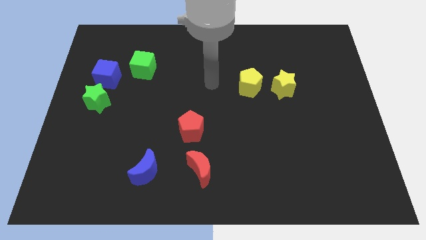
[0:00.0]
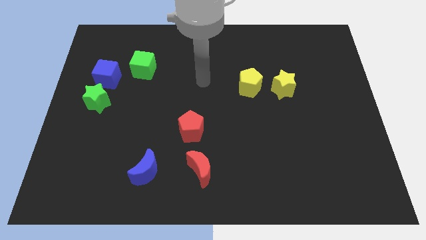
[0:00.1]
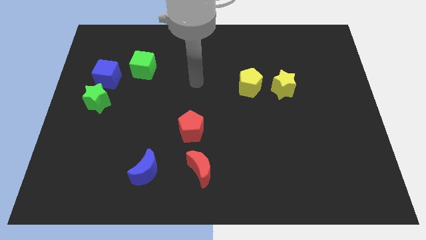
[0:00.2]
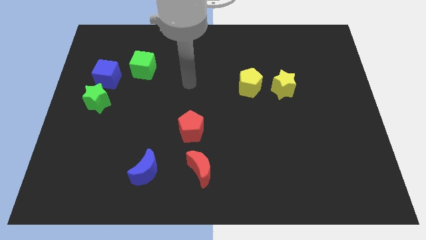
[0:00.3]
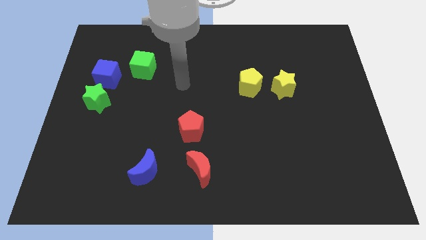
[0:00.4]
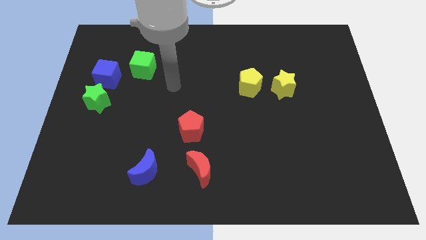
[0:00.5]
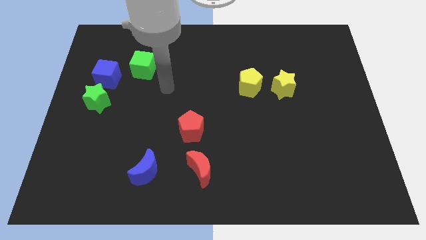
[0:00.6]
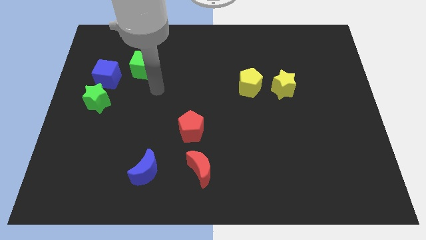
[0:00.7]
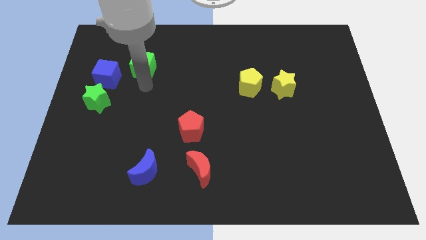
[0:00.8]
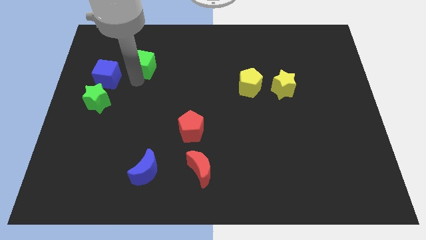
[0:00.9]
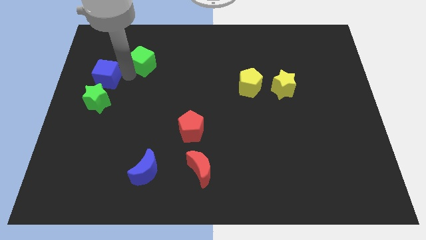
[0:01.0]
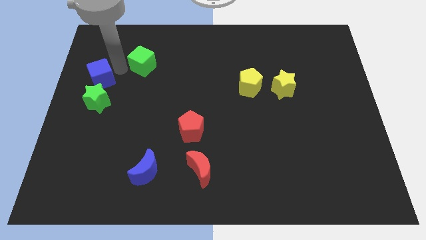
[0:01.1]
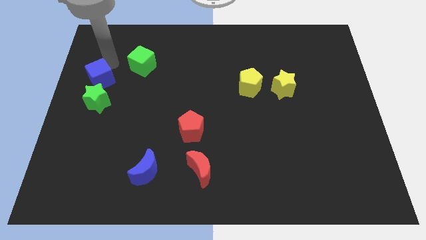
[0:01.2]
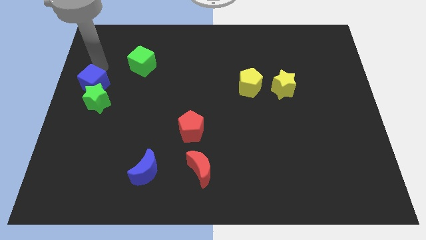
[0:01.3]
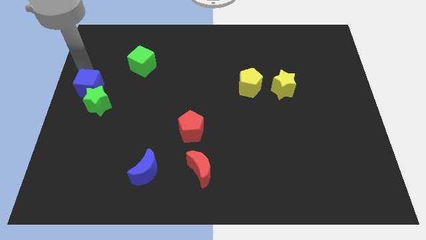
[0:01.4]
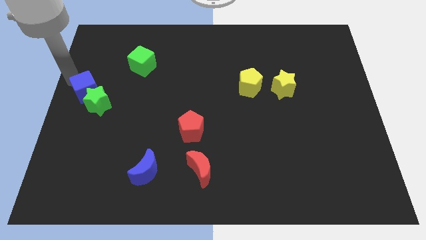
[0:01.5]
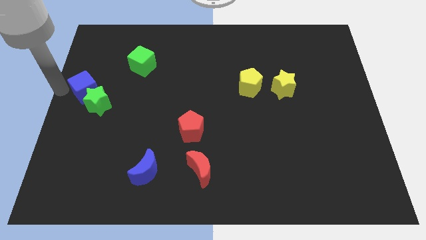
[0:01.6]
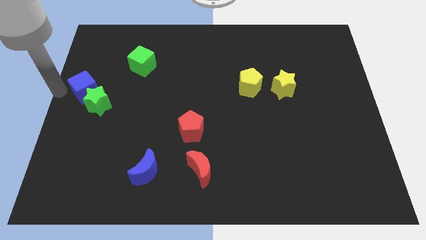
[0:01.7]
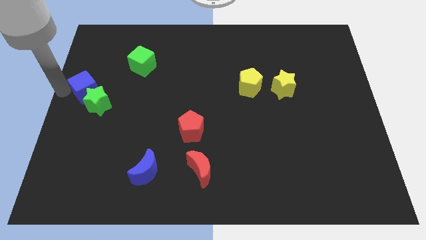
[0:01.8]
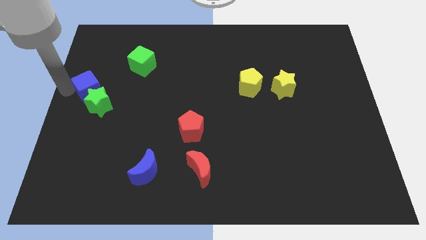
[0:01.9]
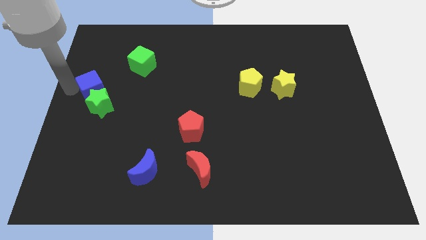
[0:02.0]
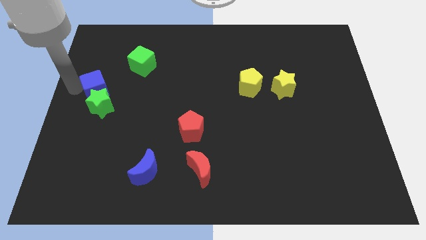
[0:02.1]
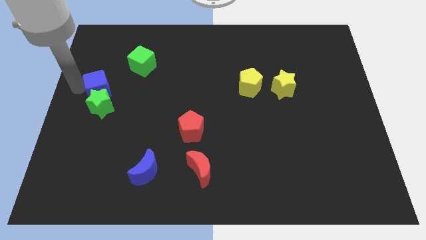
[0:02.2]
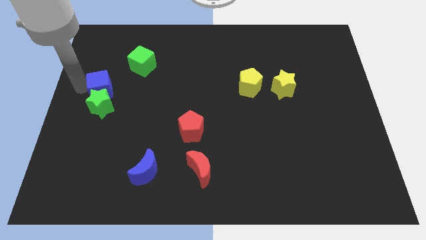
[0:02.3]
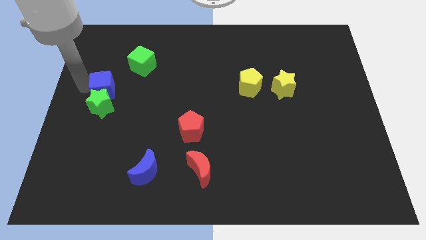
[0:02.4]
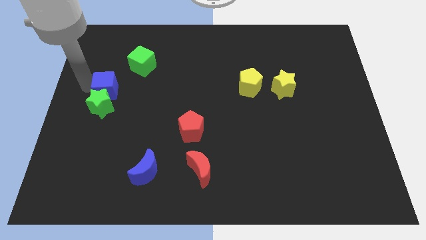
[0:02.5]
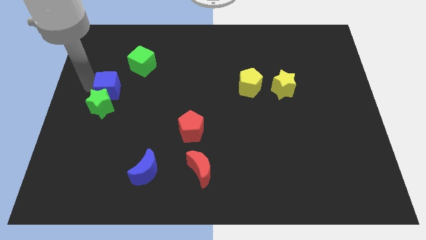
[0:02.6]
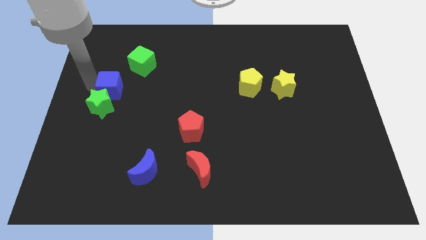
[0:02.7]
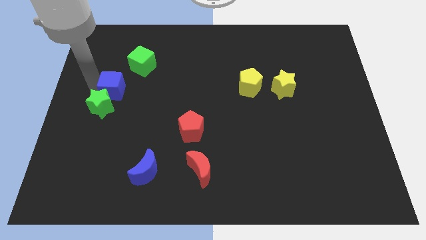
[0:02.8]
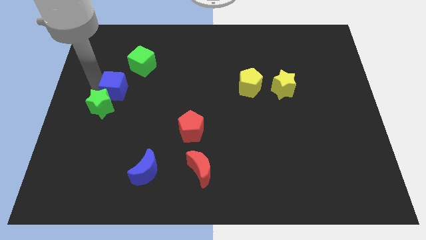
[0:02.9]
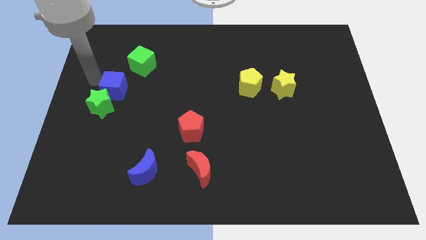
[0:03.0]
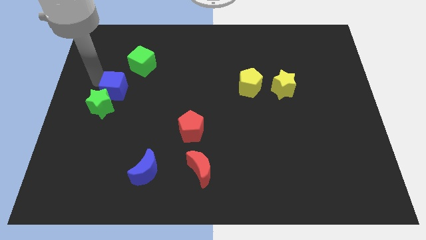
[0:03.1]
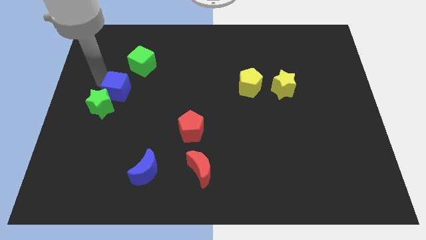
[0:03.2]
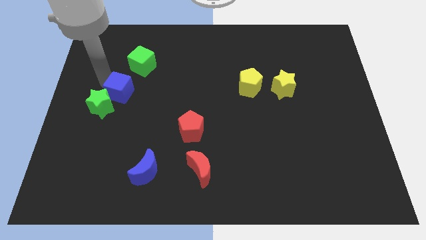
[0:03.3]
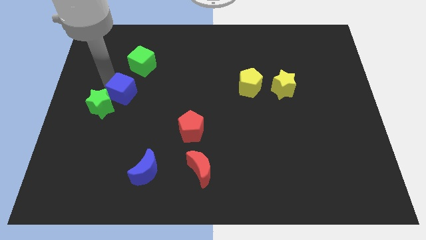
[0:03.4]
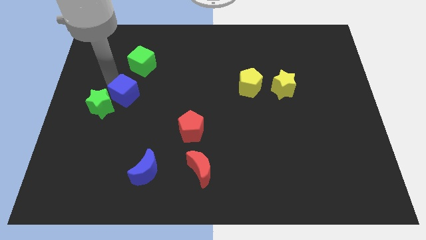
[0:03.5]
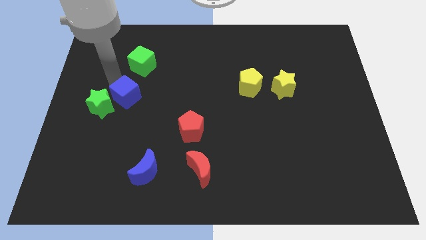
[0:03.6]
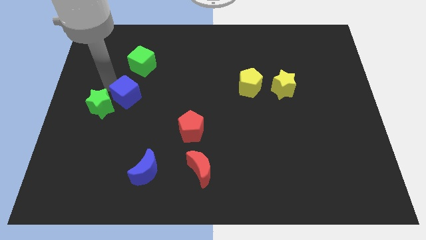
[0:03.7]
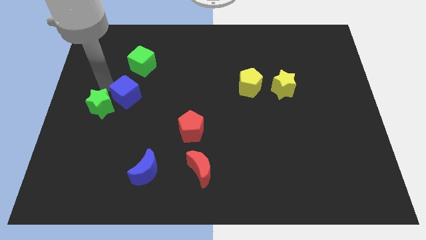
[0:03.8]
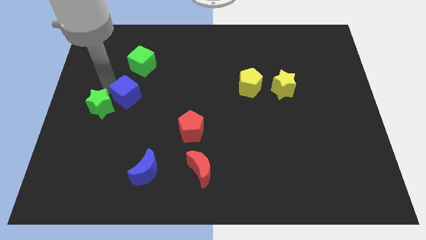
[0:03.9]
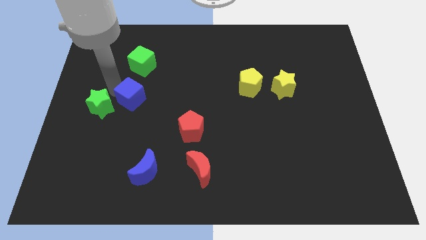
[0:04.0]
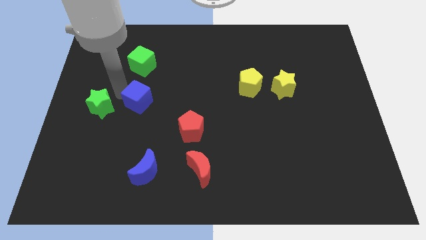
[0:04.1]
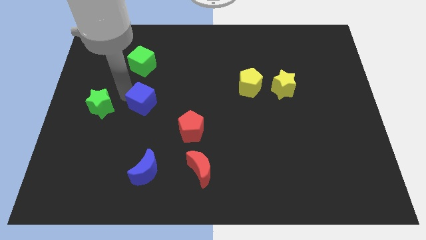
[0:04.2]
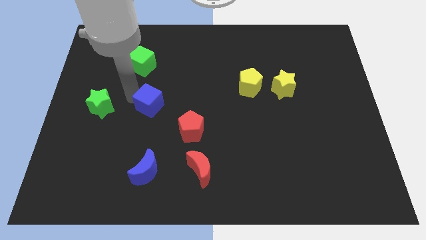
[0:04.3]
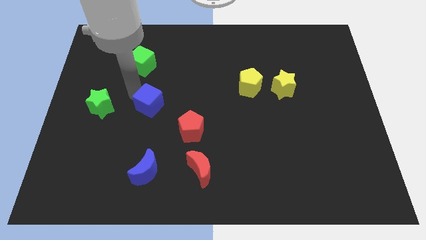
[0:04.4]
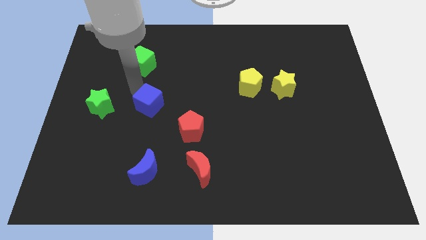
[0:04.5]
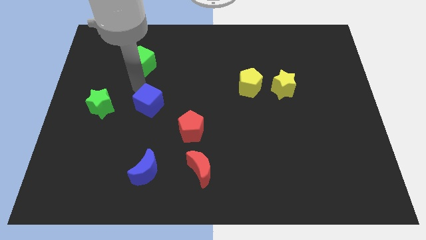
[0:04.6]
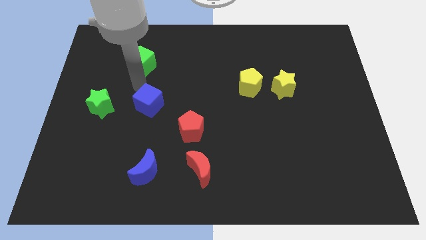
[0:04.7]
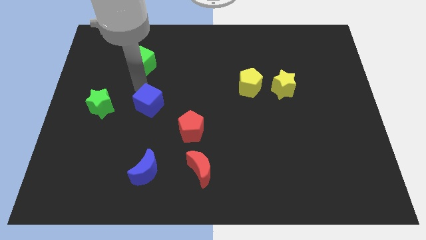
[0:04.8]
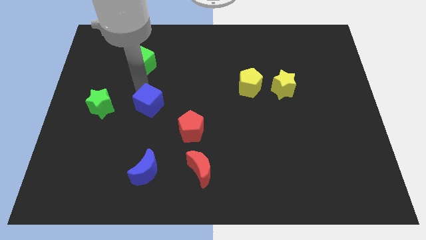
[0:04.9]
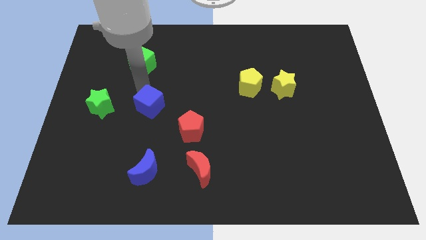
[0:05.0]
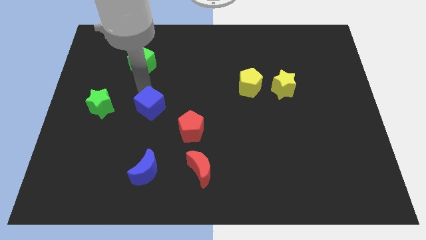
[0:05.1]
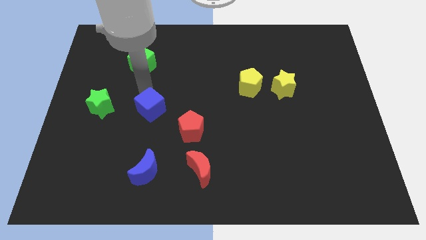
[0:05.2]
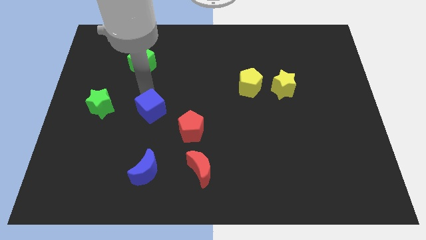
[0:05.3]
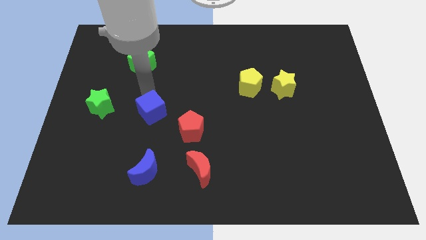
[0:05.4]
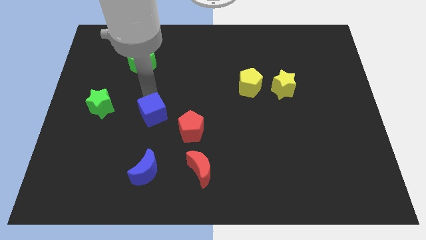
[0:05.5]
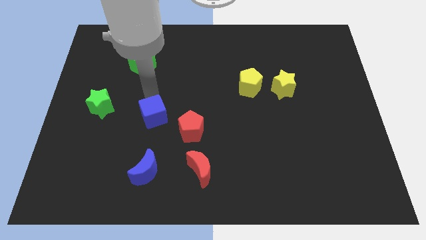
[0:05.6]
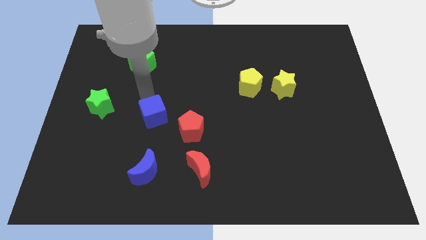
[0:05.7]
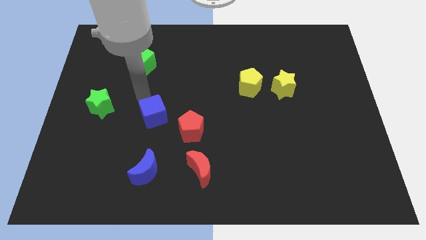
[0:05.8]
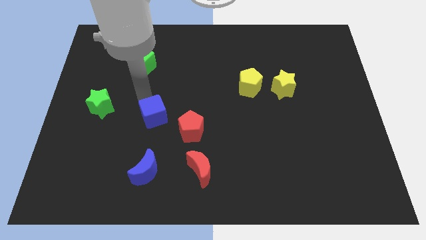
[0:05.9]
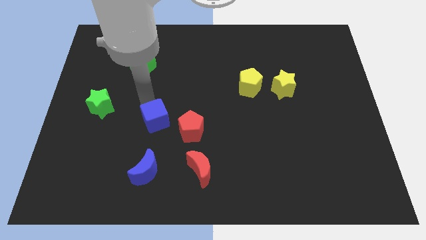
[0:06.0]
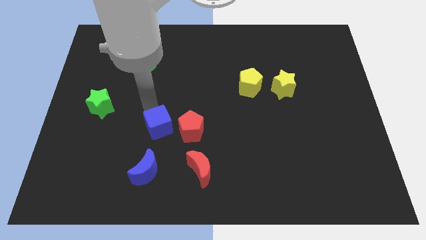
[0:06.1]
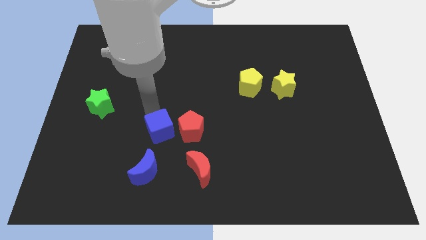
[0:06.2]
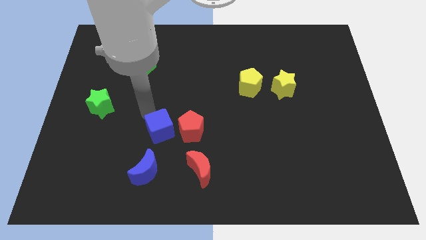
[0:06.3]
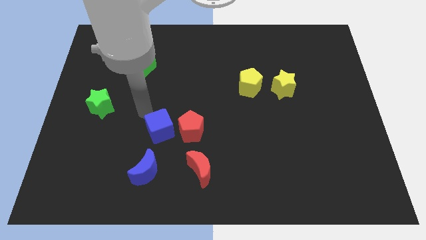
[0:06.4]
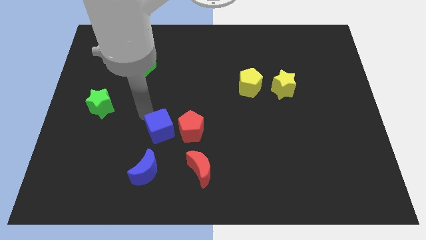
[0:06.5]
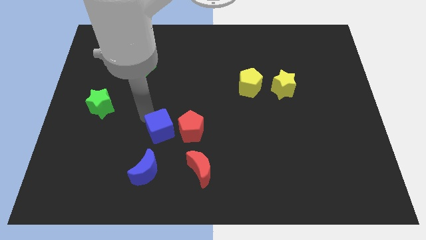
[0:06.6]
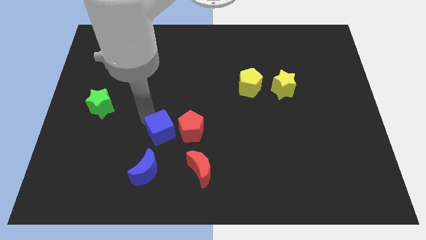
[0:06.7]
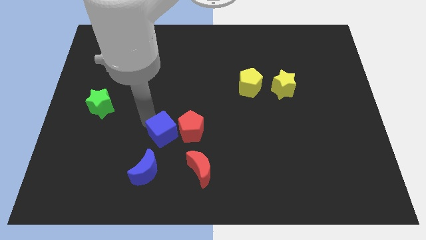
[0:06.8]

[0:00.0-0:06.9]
move the blue cube diagonally up and to the left of the red moon
